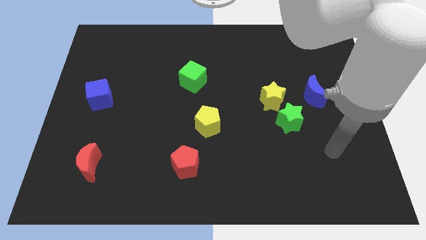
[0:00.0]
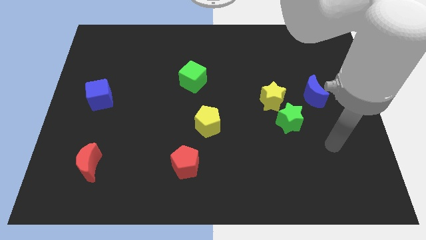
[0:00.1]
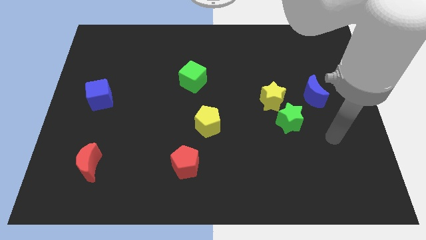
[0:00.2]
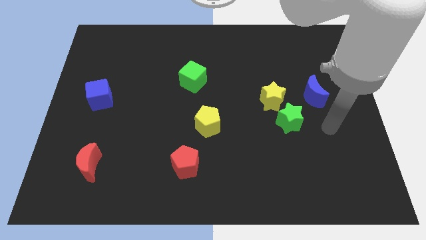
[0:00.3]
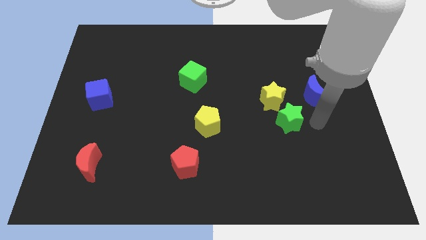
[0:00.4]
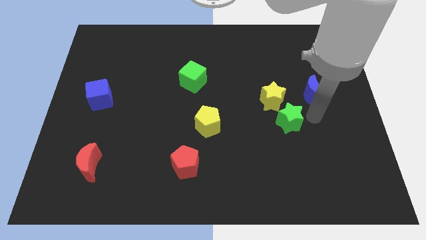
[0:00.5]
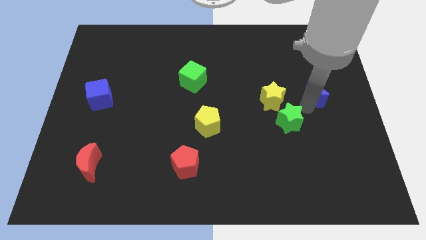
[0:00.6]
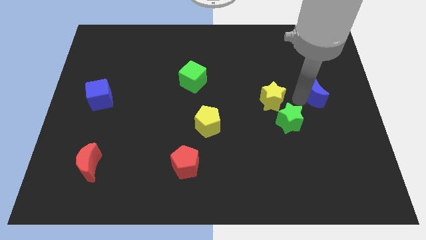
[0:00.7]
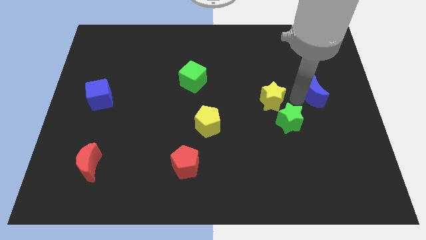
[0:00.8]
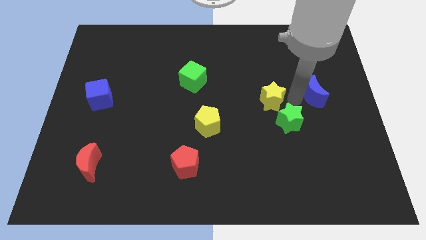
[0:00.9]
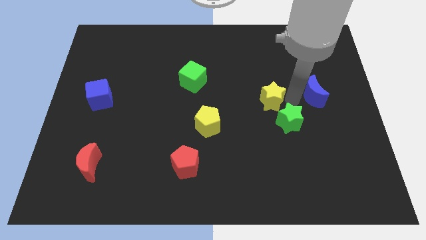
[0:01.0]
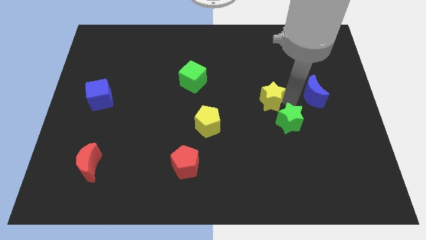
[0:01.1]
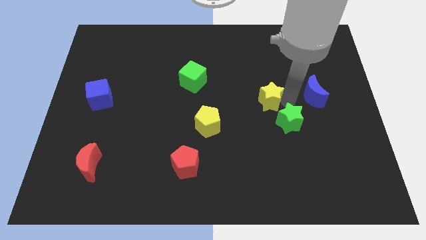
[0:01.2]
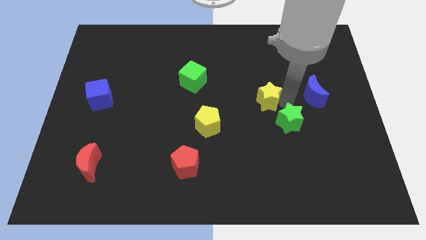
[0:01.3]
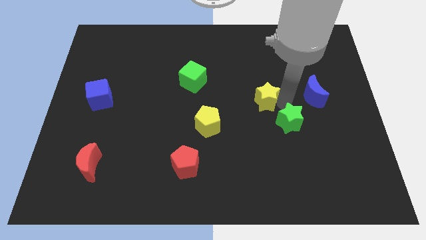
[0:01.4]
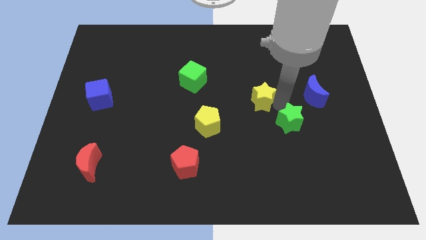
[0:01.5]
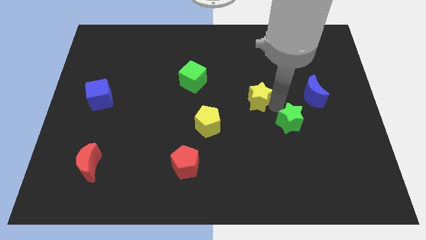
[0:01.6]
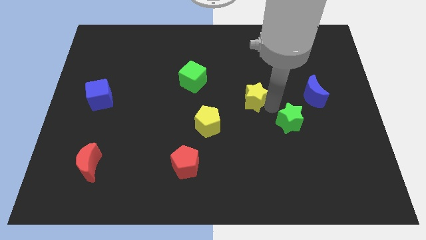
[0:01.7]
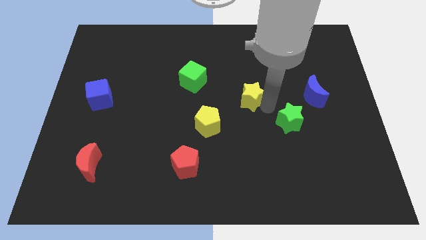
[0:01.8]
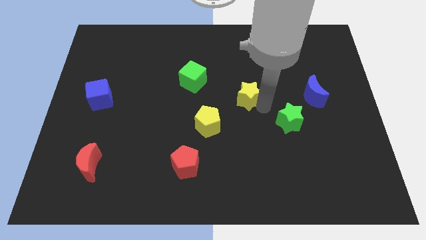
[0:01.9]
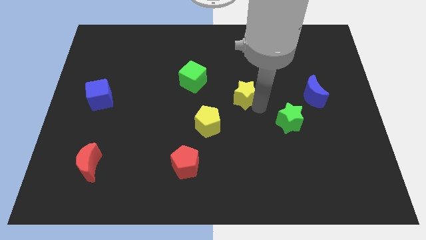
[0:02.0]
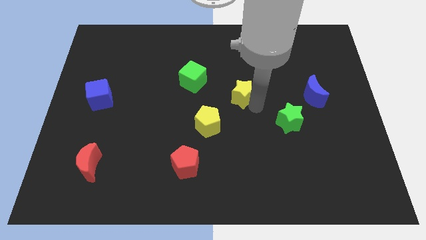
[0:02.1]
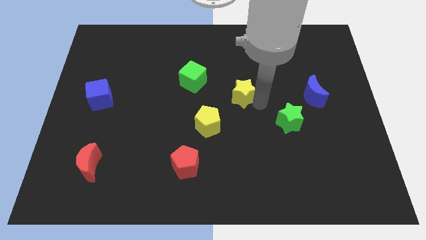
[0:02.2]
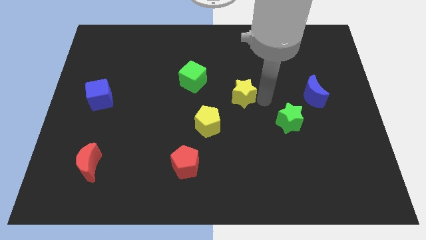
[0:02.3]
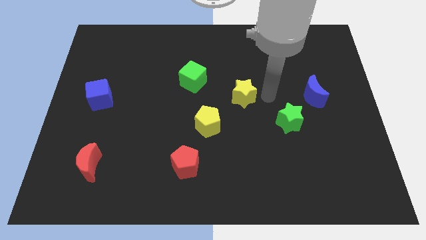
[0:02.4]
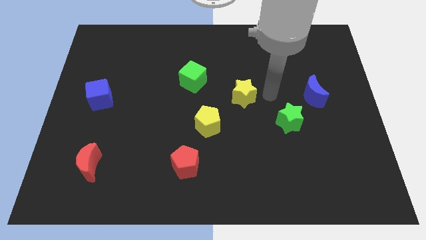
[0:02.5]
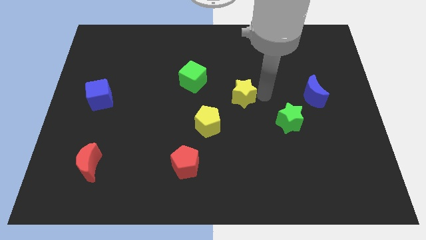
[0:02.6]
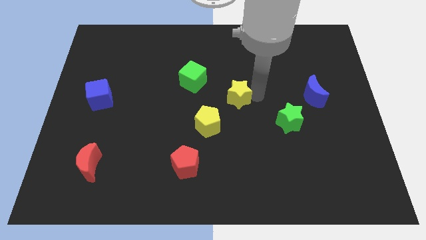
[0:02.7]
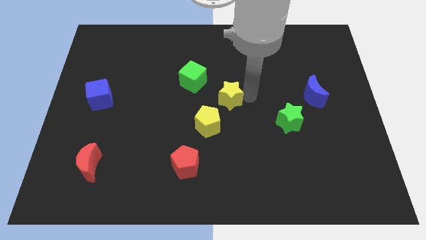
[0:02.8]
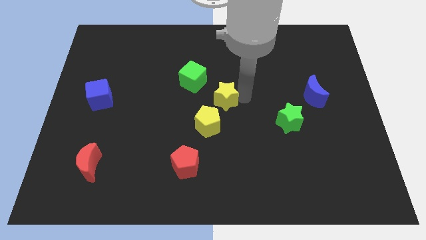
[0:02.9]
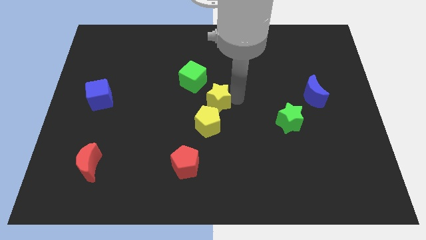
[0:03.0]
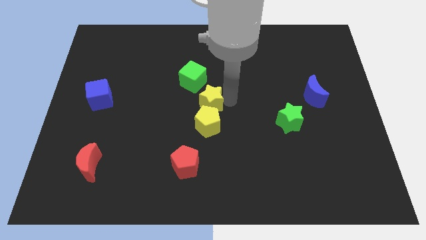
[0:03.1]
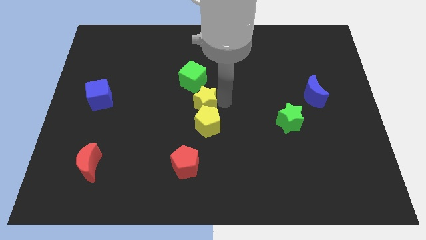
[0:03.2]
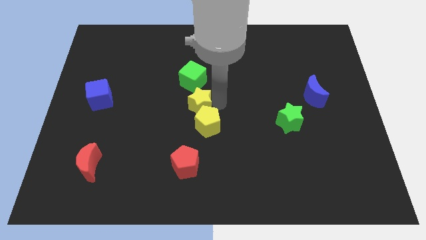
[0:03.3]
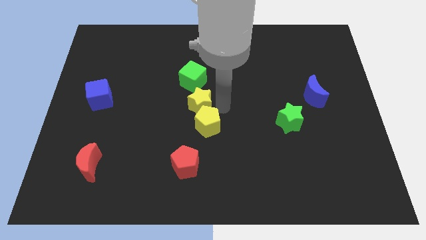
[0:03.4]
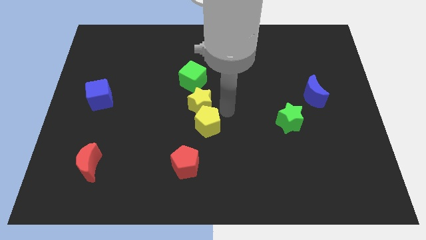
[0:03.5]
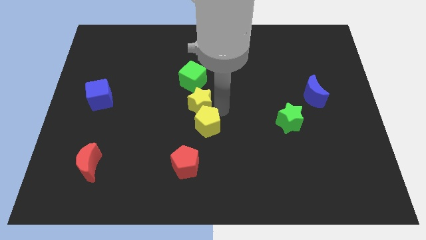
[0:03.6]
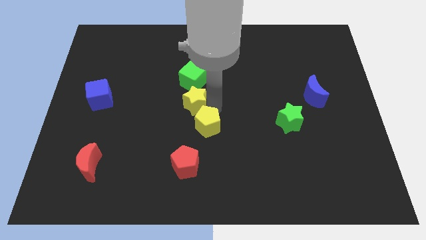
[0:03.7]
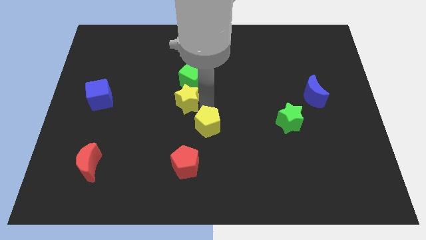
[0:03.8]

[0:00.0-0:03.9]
push the yellow star to the left

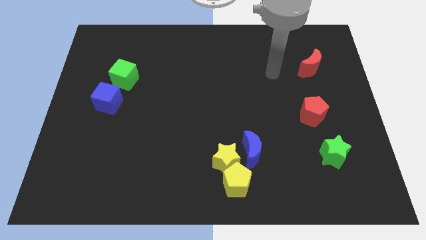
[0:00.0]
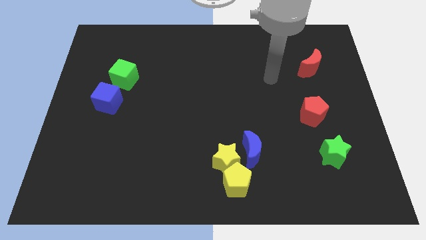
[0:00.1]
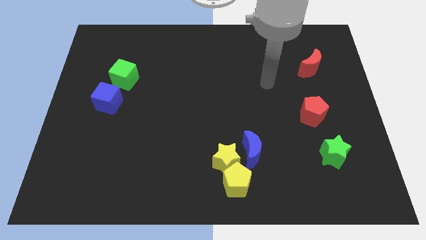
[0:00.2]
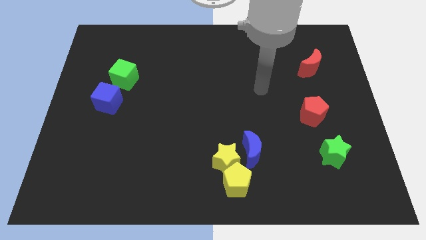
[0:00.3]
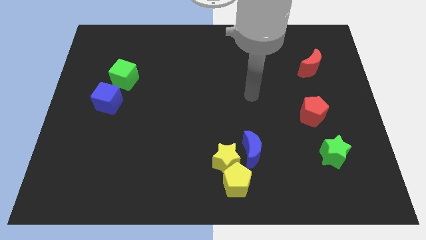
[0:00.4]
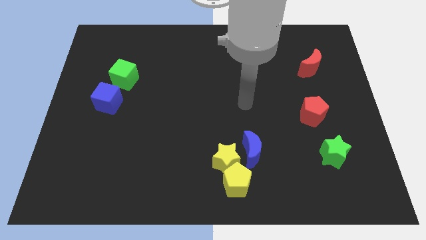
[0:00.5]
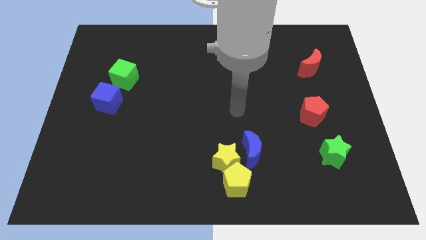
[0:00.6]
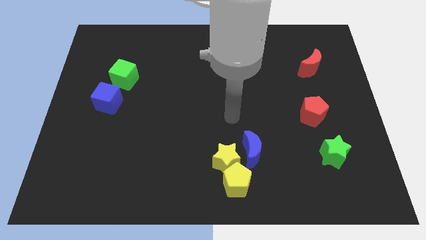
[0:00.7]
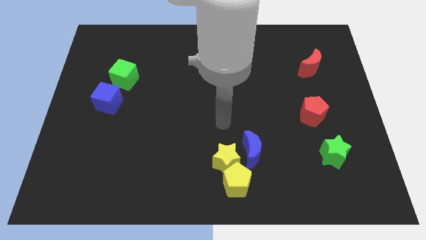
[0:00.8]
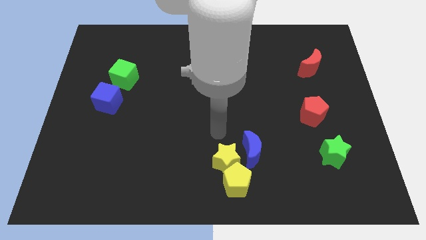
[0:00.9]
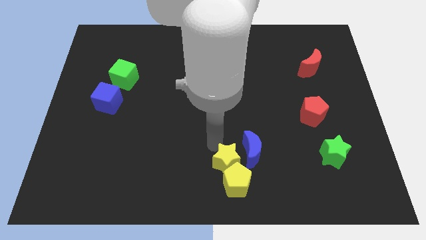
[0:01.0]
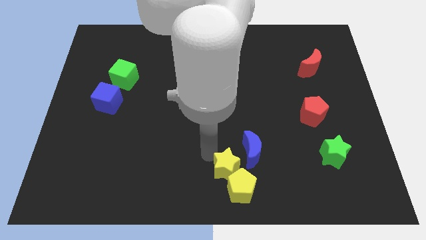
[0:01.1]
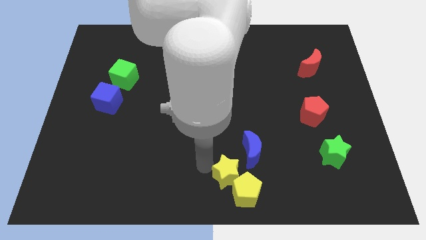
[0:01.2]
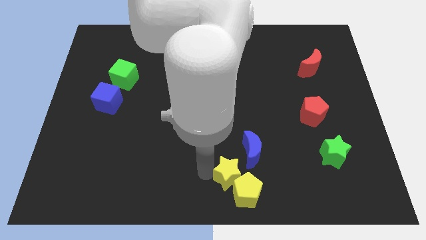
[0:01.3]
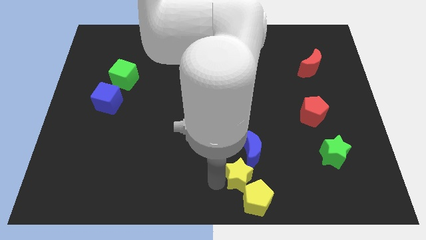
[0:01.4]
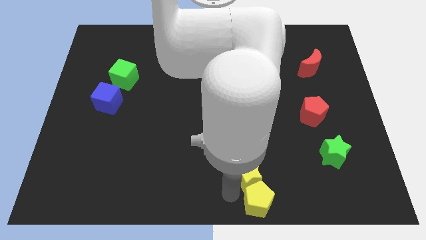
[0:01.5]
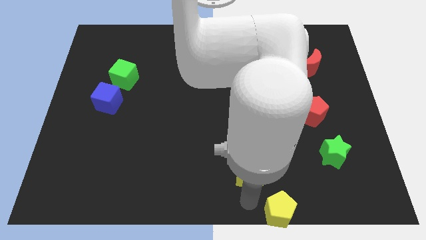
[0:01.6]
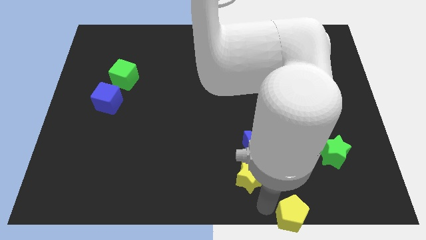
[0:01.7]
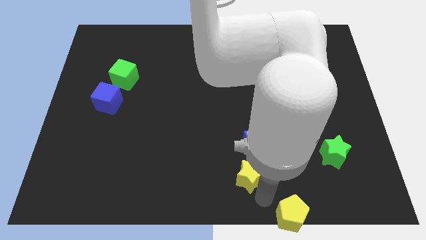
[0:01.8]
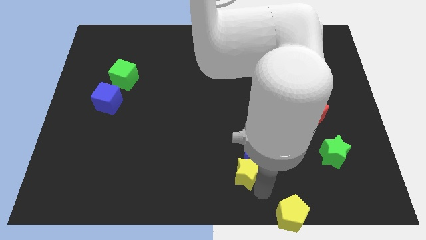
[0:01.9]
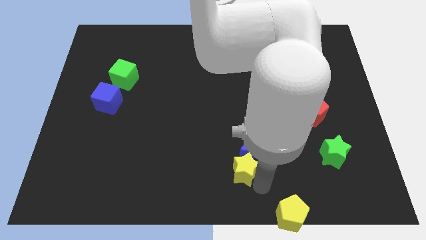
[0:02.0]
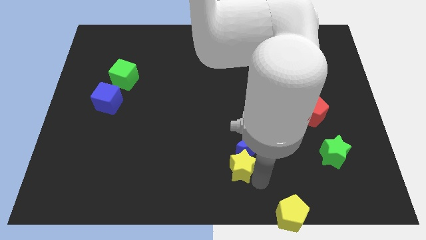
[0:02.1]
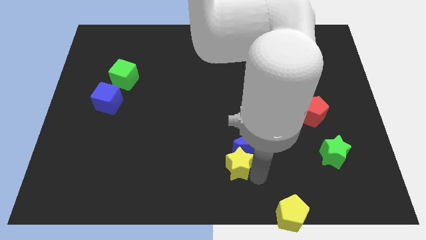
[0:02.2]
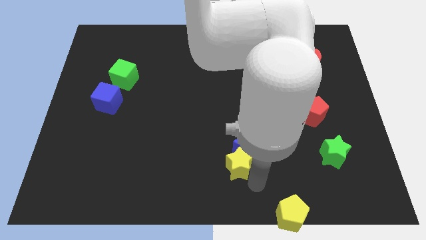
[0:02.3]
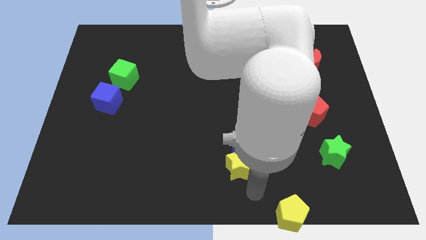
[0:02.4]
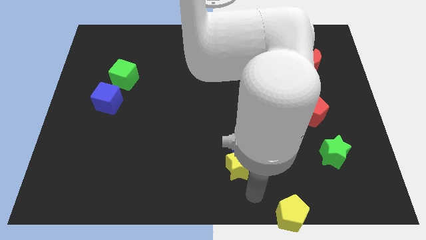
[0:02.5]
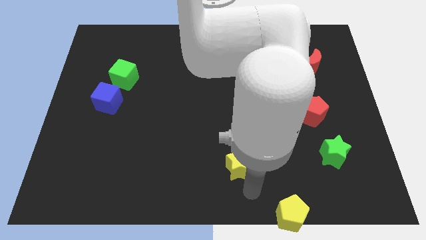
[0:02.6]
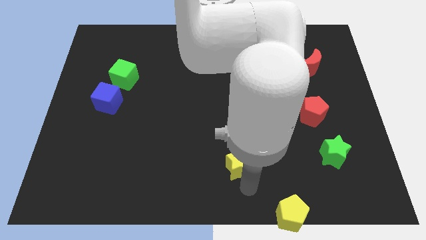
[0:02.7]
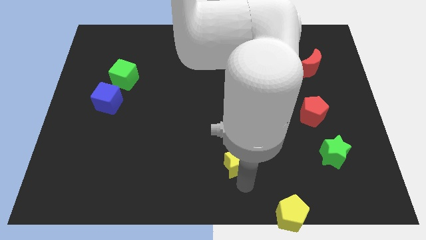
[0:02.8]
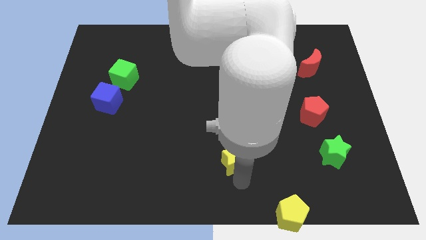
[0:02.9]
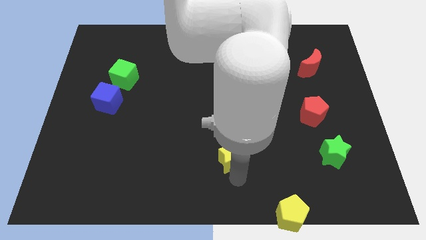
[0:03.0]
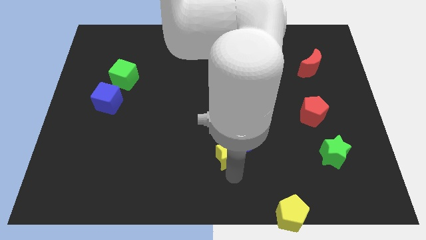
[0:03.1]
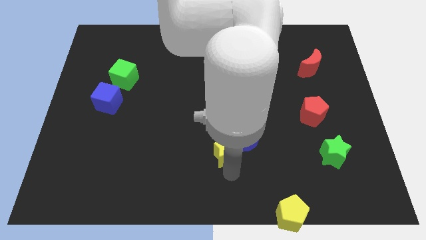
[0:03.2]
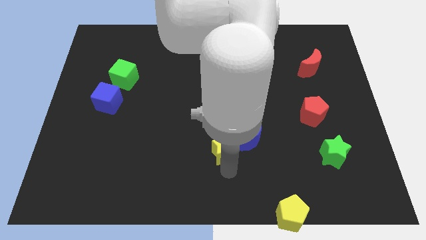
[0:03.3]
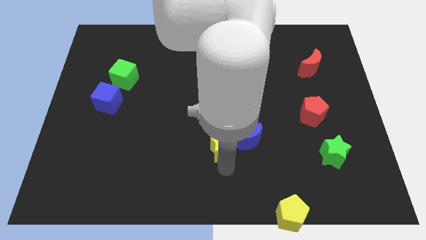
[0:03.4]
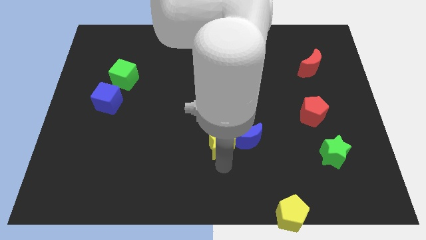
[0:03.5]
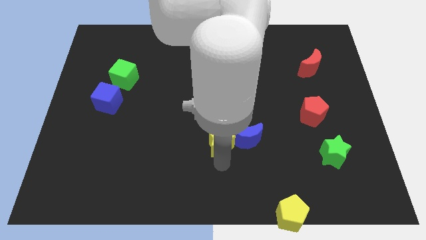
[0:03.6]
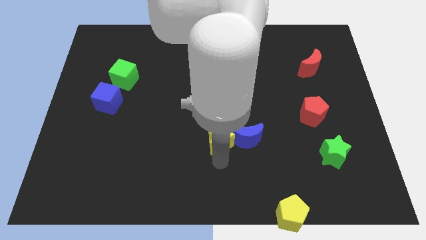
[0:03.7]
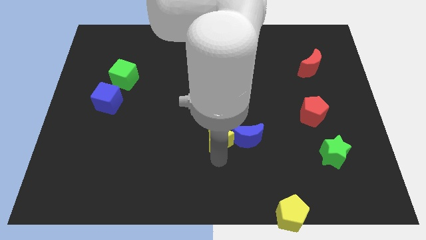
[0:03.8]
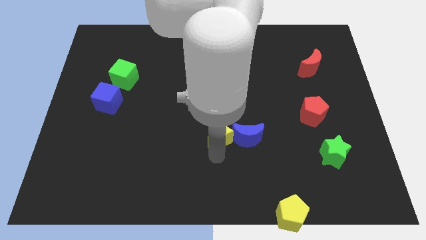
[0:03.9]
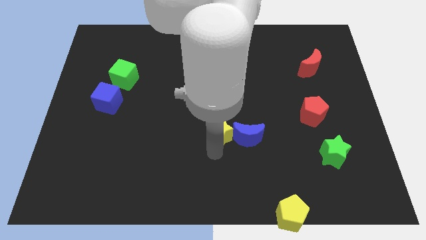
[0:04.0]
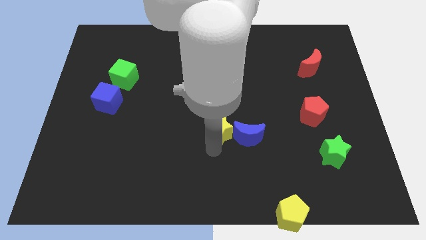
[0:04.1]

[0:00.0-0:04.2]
move the yellow star a little up
